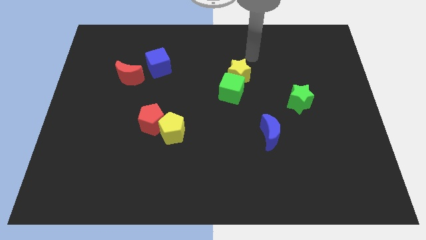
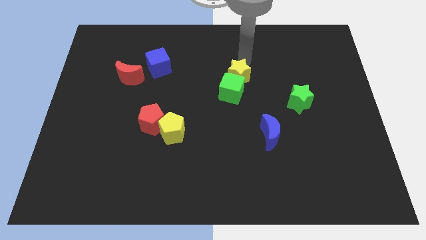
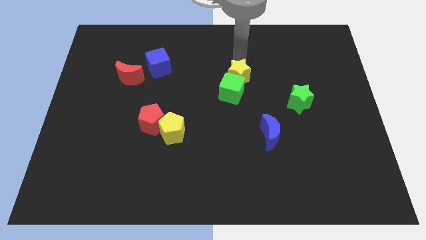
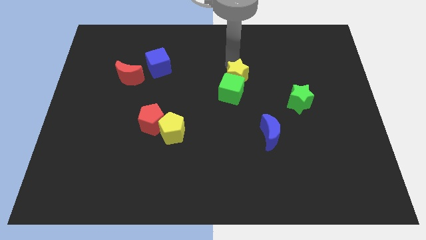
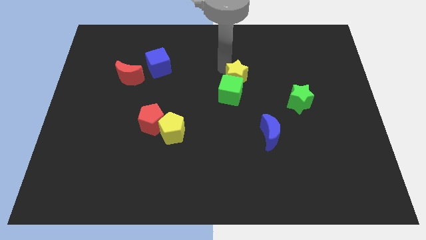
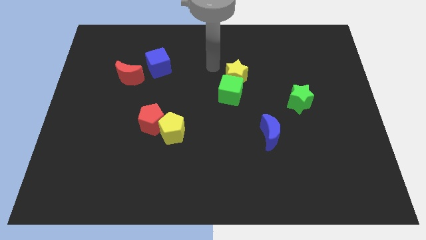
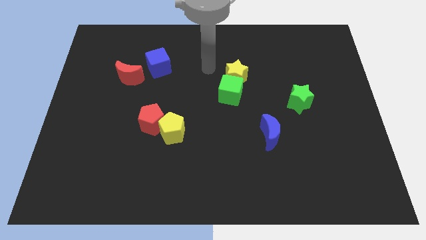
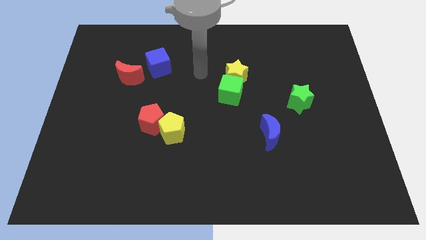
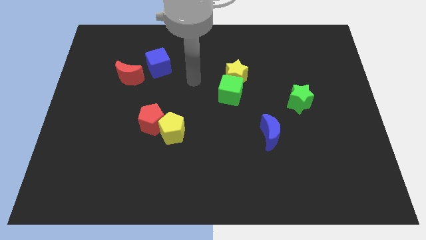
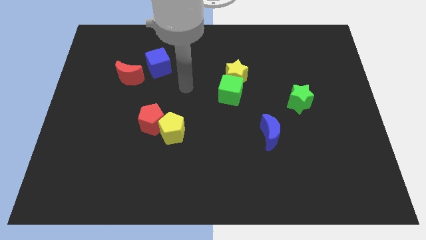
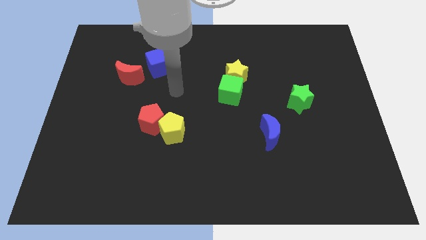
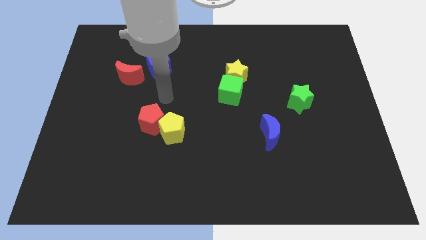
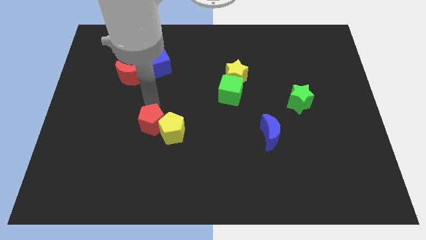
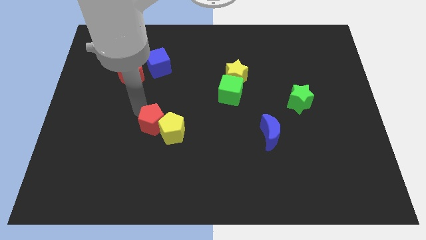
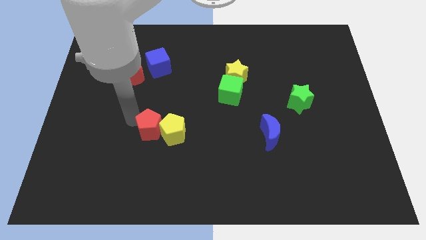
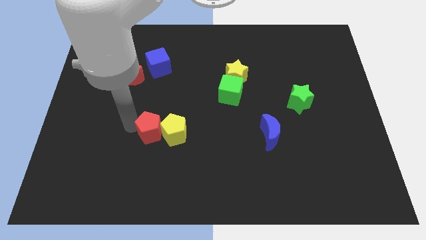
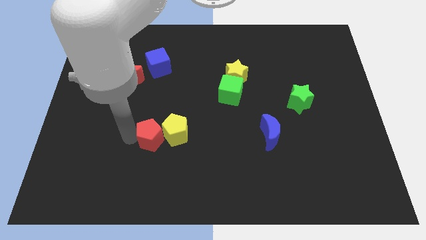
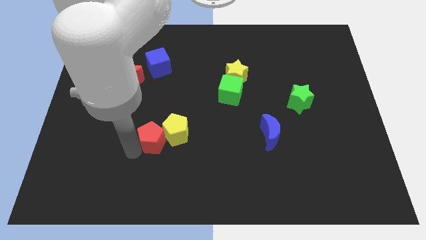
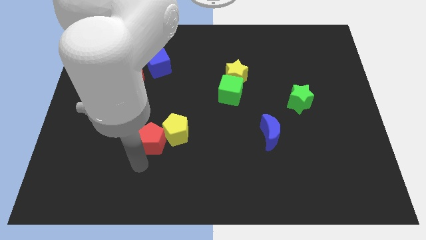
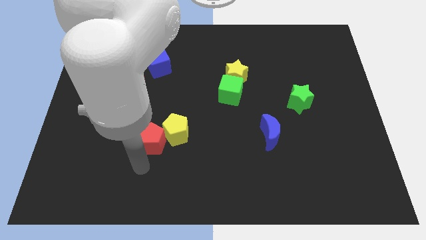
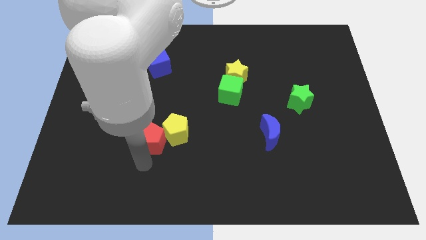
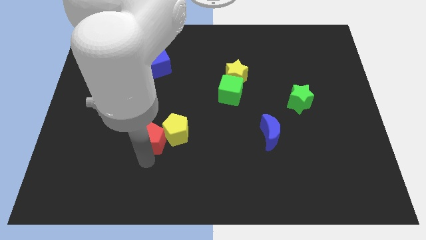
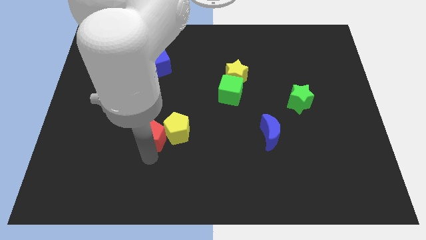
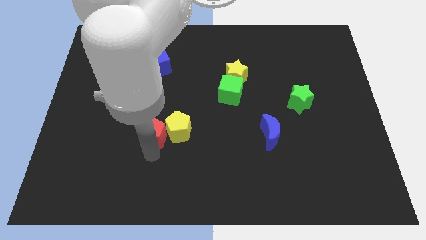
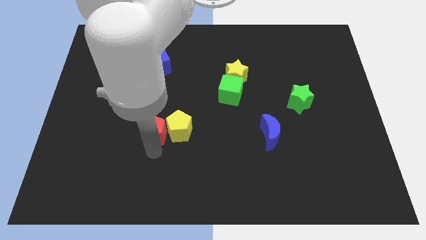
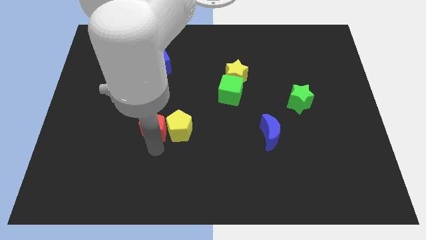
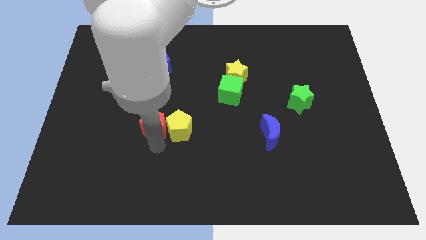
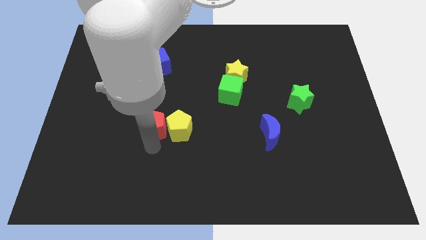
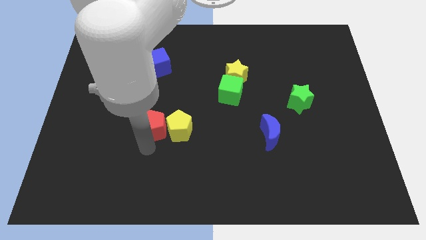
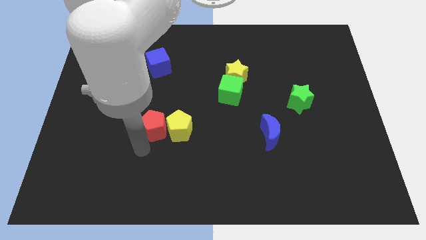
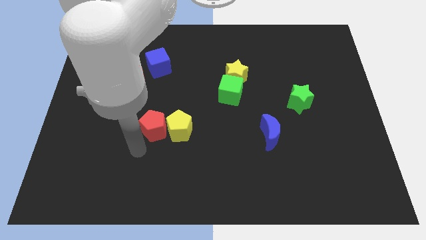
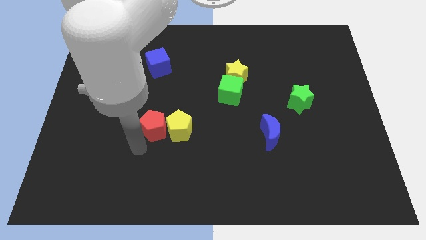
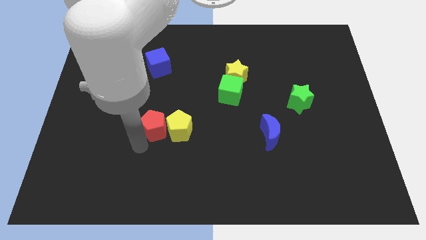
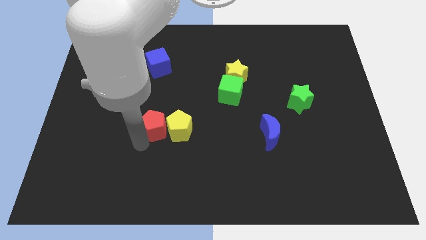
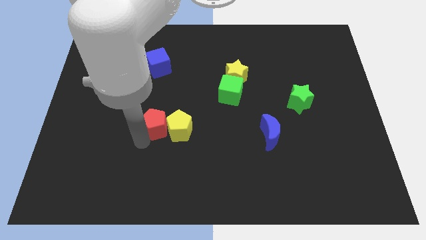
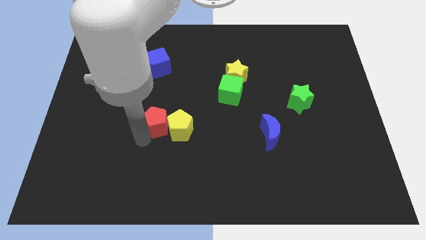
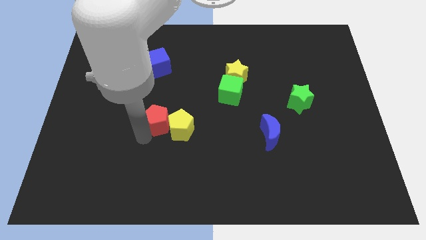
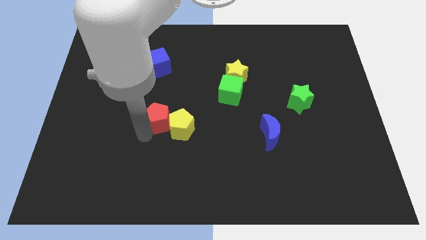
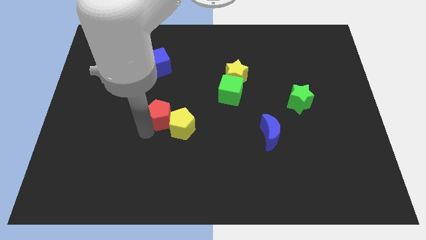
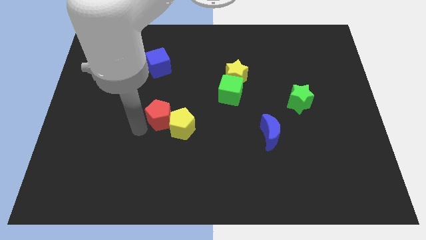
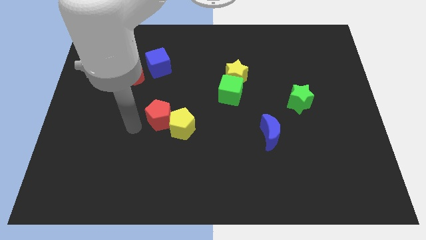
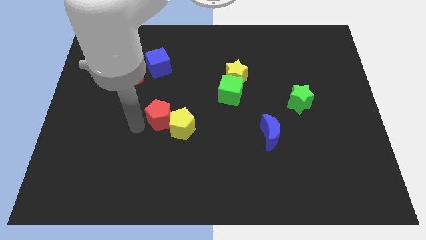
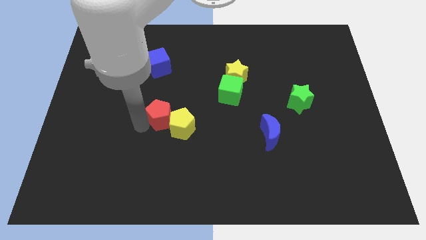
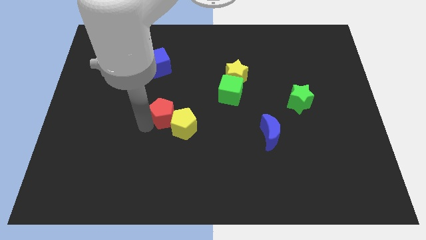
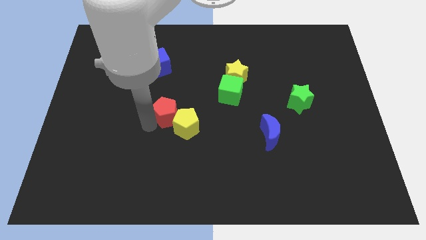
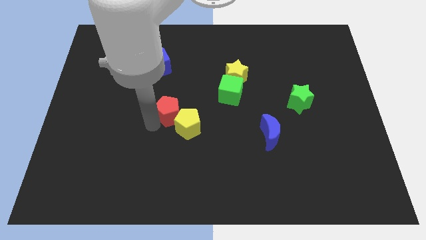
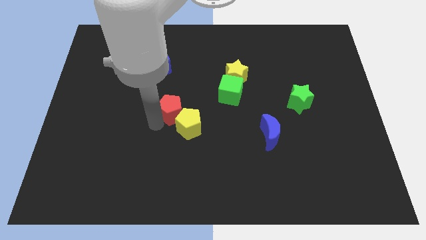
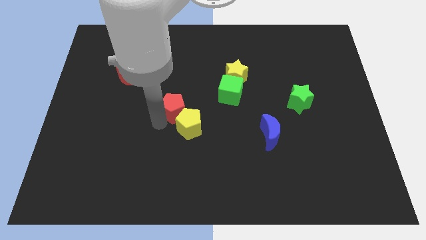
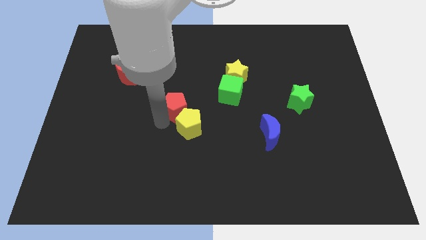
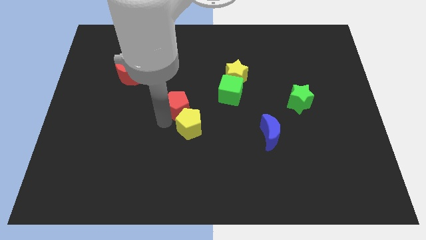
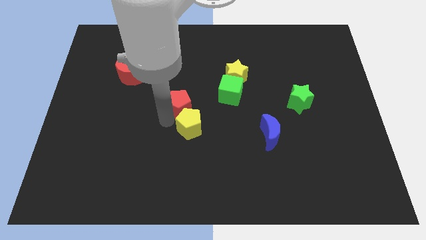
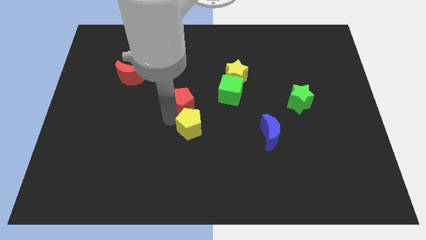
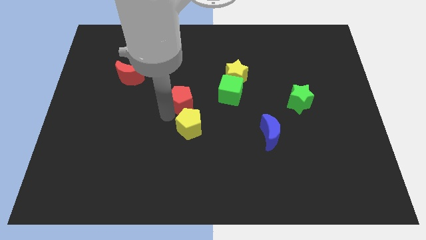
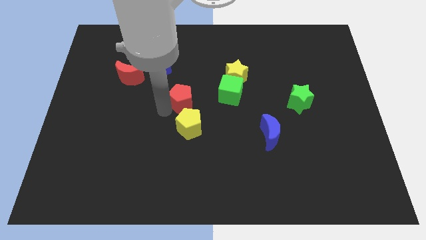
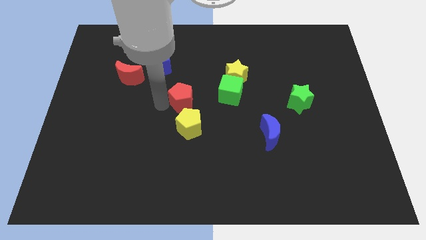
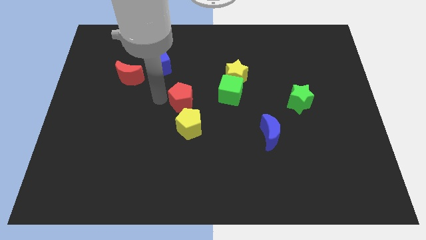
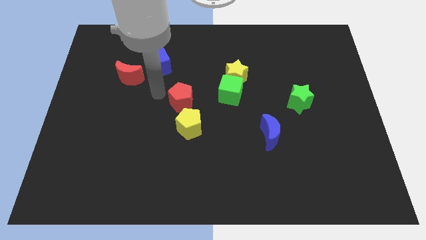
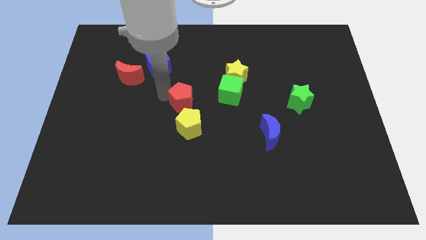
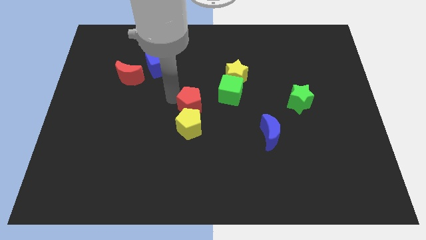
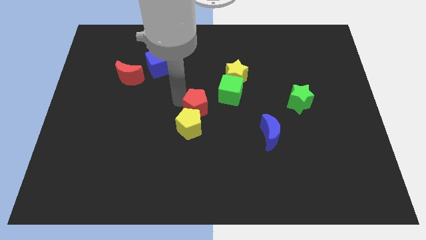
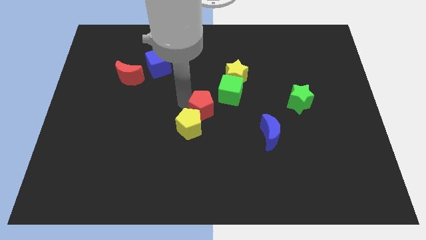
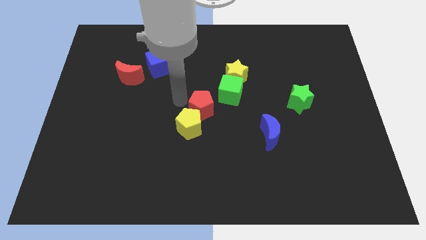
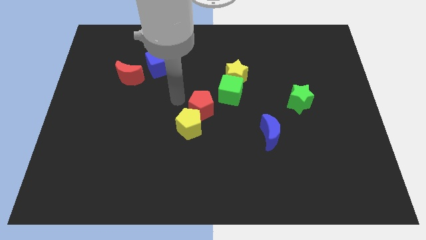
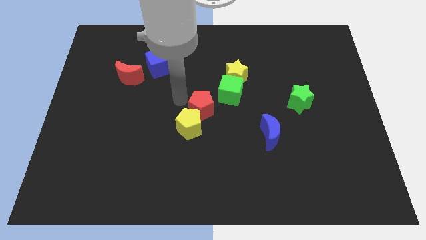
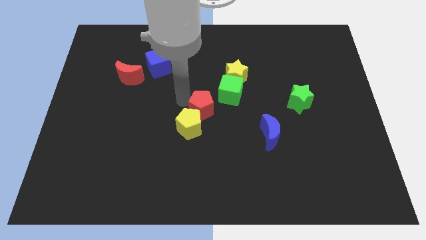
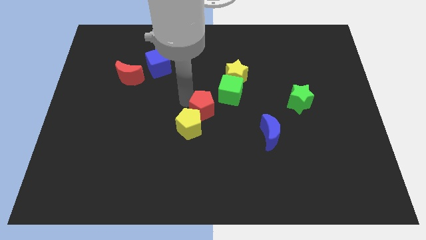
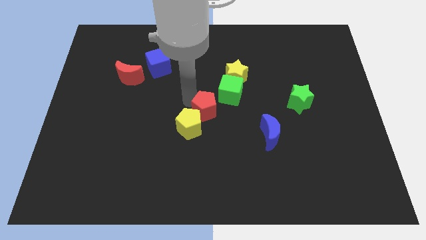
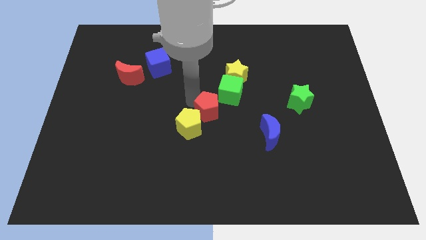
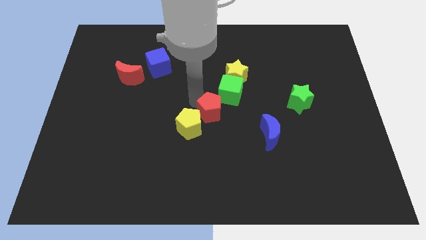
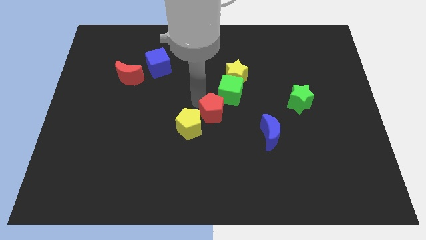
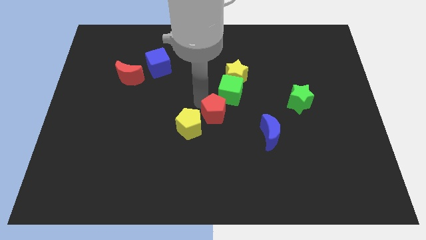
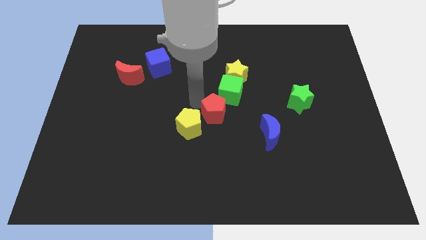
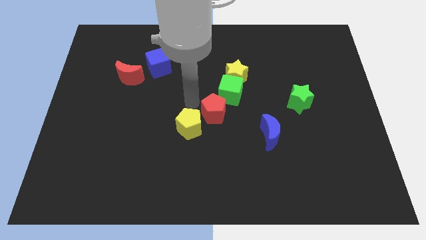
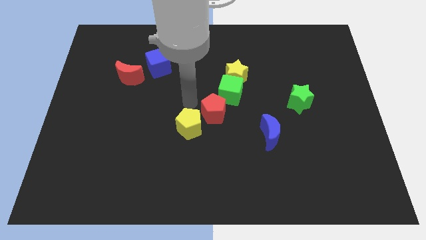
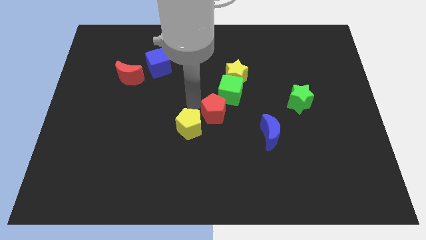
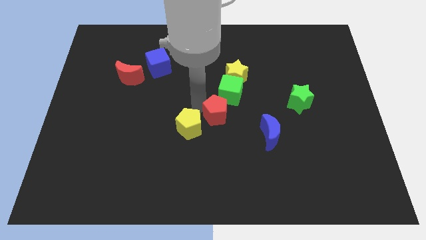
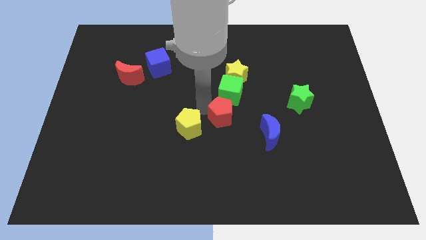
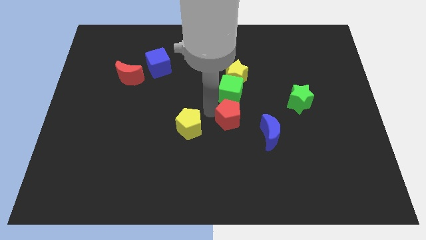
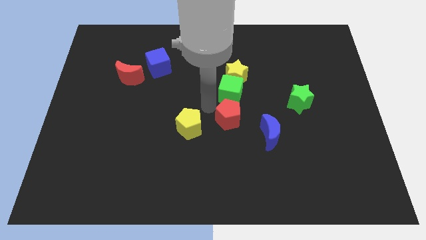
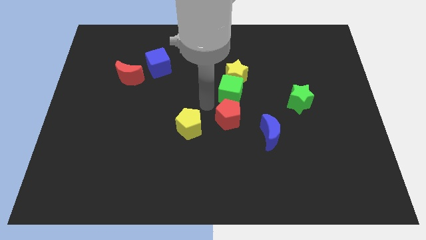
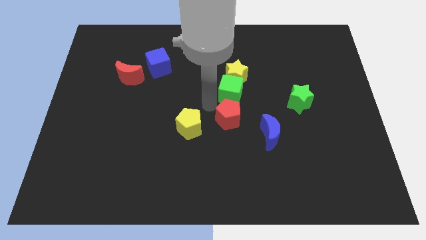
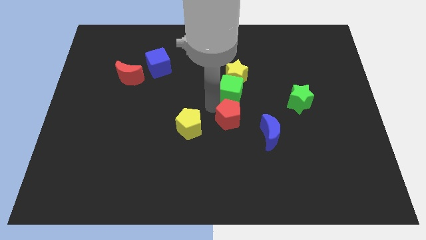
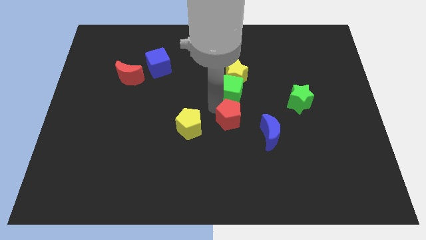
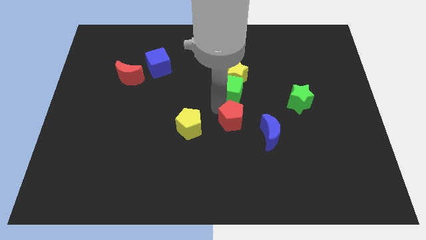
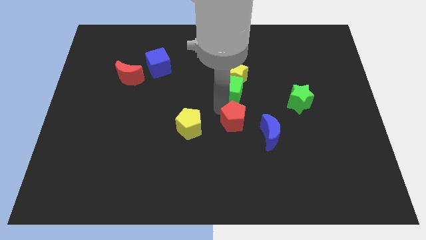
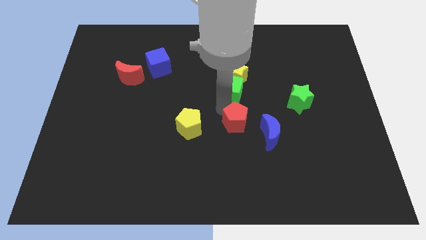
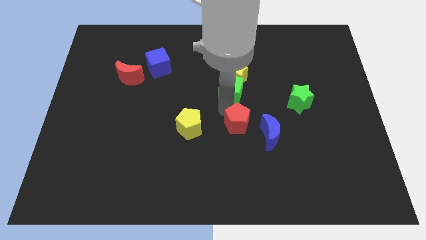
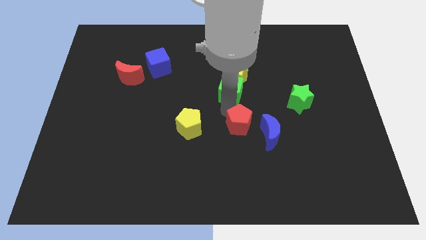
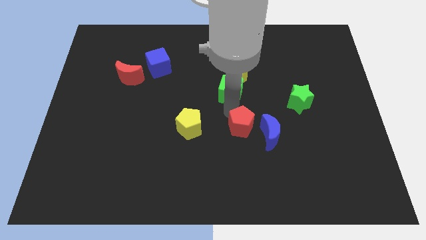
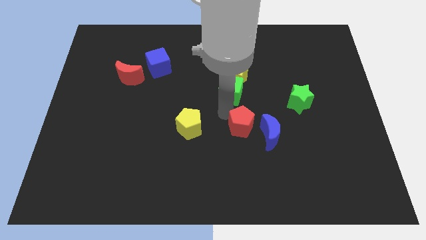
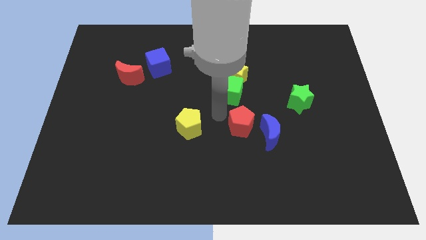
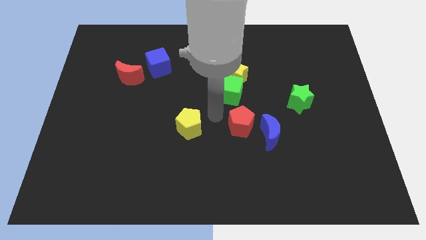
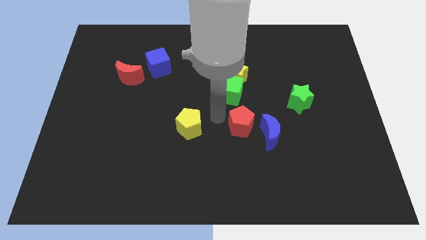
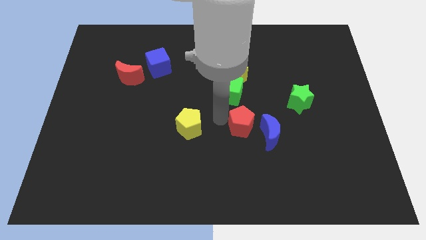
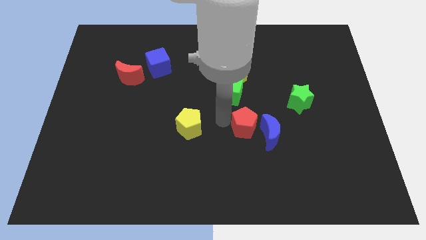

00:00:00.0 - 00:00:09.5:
slide the red pentagon towards the blue moon
